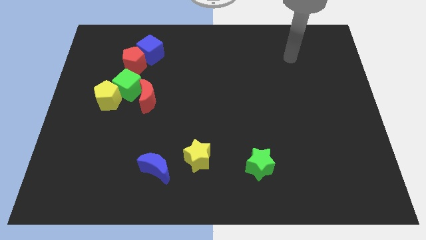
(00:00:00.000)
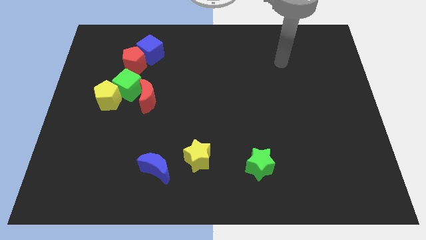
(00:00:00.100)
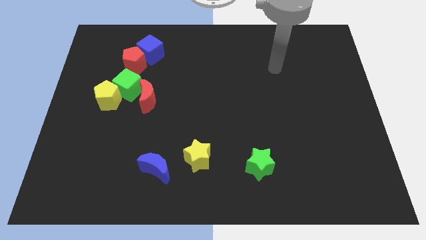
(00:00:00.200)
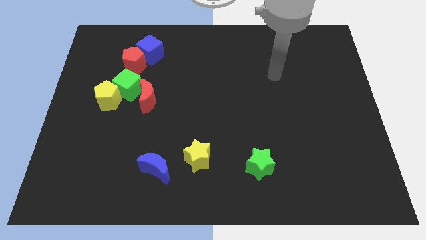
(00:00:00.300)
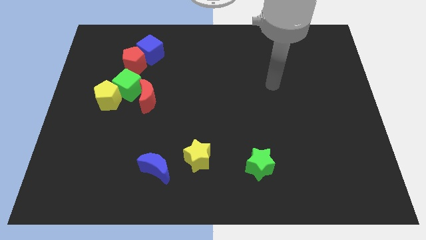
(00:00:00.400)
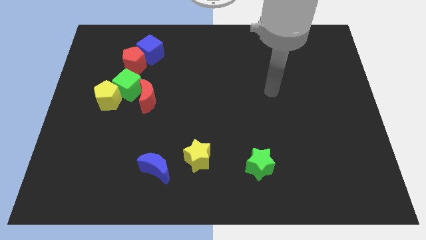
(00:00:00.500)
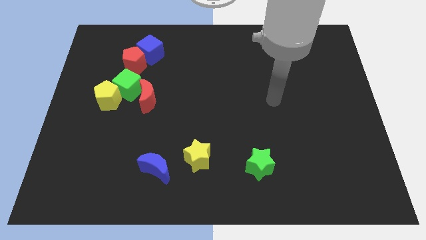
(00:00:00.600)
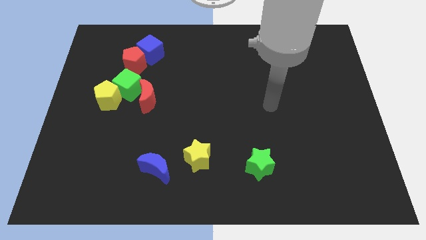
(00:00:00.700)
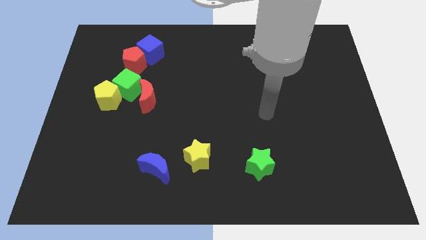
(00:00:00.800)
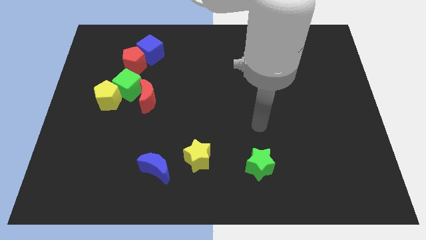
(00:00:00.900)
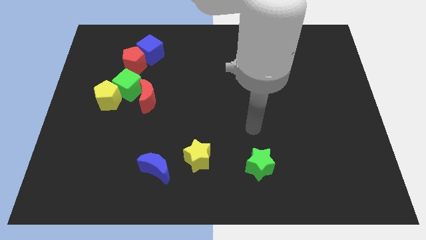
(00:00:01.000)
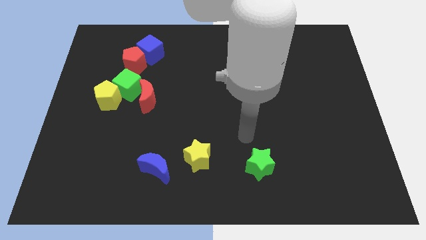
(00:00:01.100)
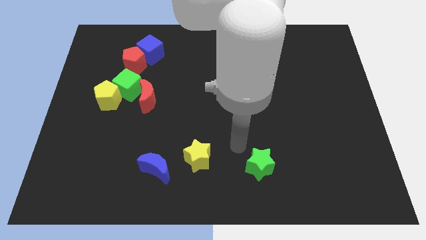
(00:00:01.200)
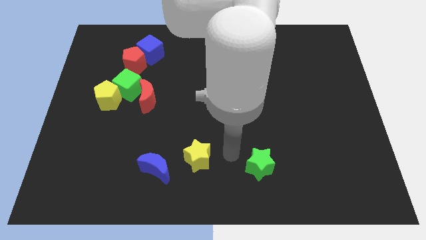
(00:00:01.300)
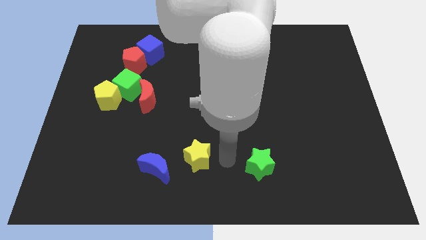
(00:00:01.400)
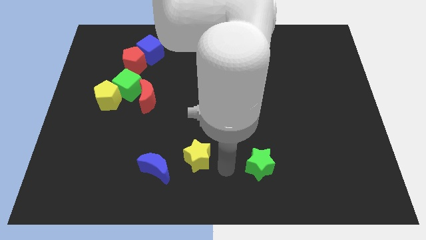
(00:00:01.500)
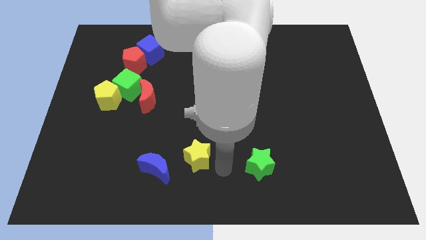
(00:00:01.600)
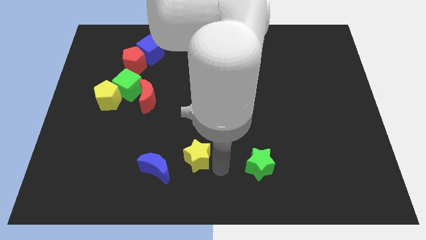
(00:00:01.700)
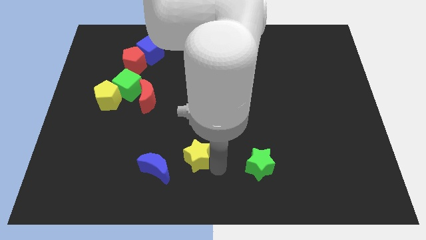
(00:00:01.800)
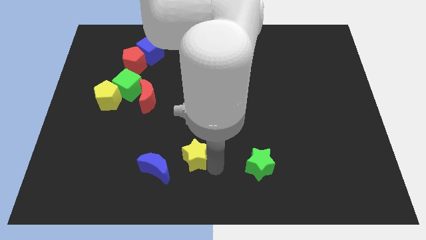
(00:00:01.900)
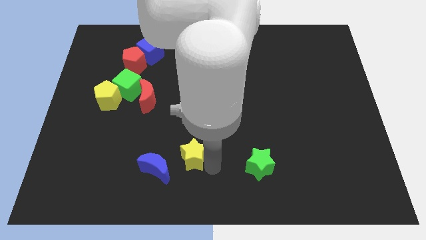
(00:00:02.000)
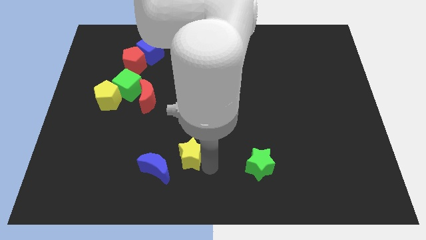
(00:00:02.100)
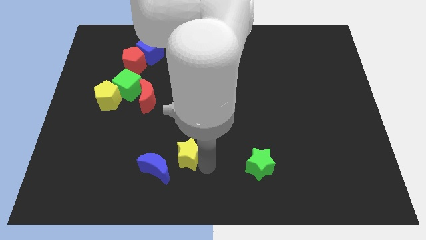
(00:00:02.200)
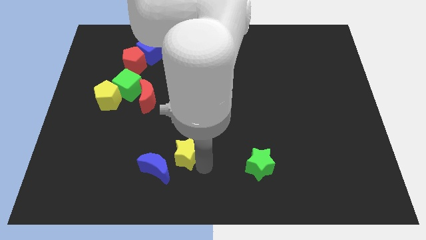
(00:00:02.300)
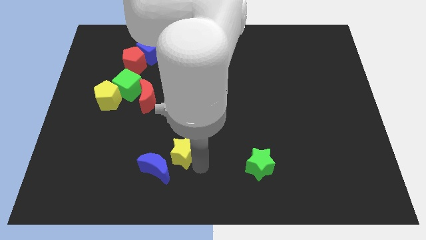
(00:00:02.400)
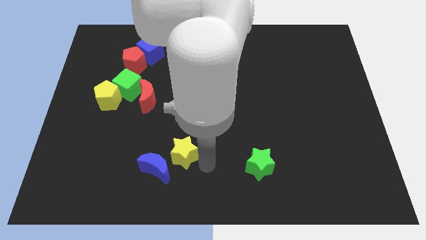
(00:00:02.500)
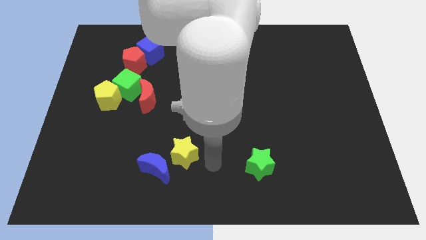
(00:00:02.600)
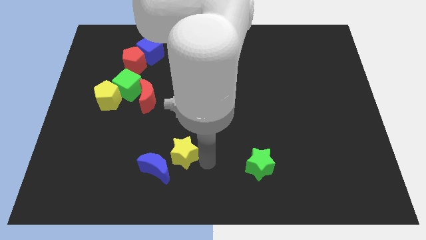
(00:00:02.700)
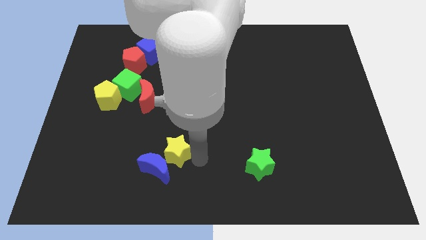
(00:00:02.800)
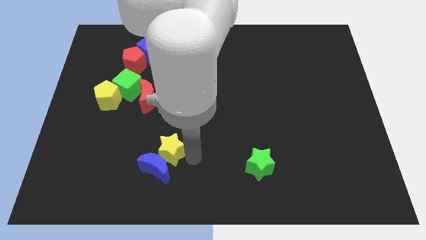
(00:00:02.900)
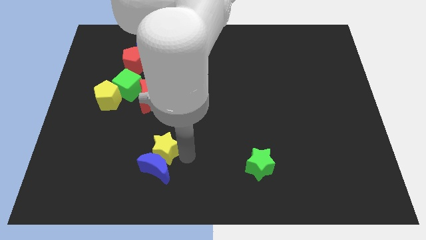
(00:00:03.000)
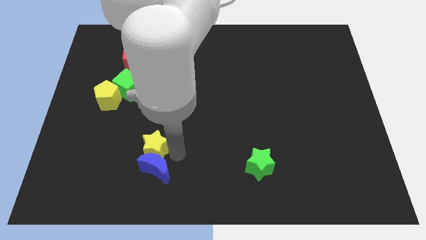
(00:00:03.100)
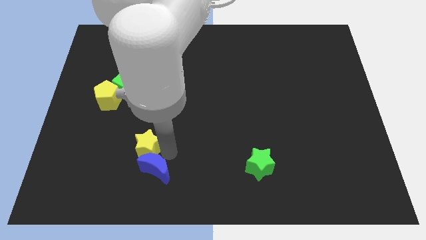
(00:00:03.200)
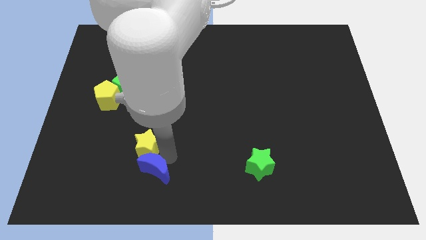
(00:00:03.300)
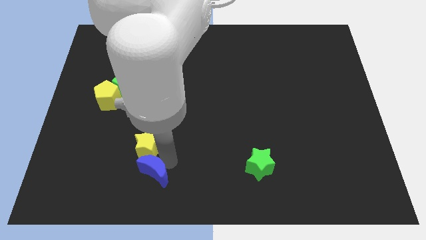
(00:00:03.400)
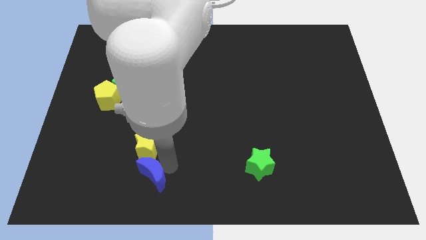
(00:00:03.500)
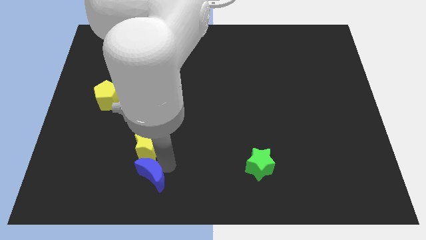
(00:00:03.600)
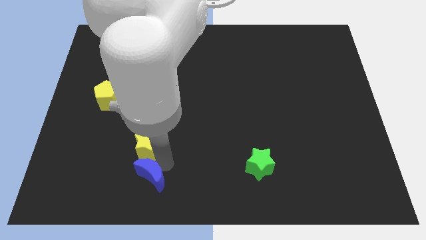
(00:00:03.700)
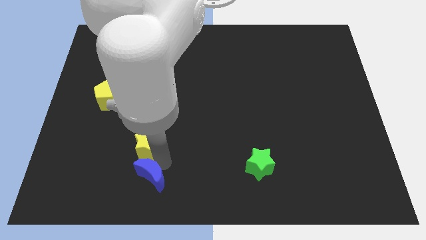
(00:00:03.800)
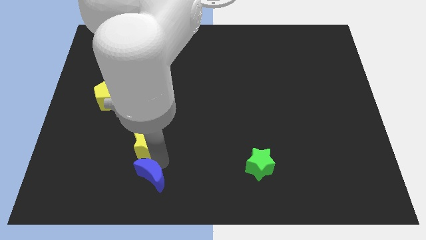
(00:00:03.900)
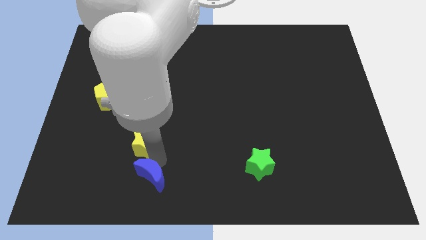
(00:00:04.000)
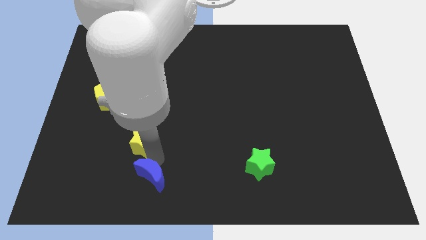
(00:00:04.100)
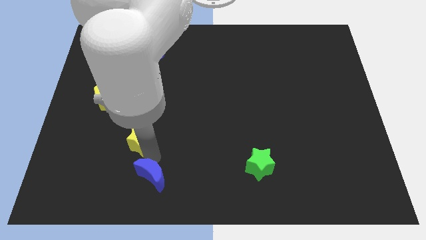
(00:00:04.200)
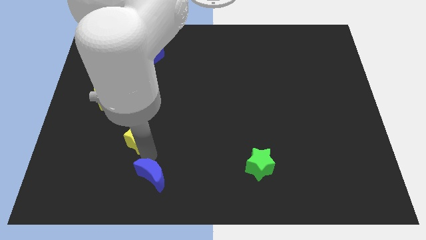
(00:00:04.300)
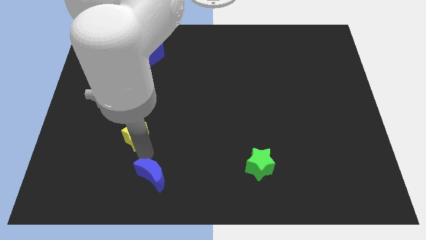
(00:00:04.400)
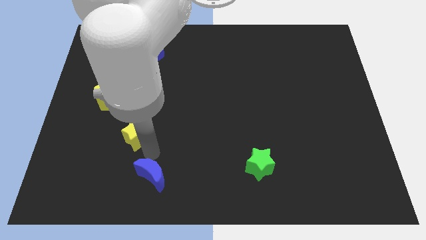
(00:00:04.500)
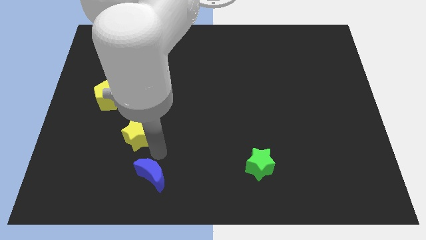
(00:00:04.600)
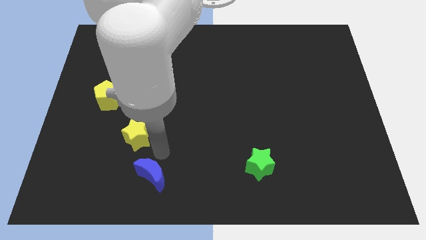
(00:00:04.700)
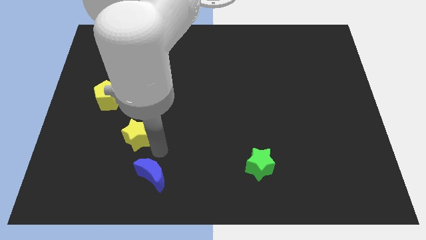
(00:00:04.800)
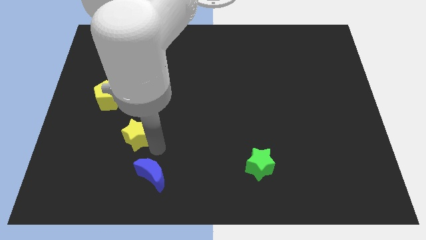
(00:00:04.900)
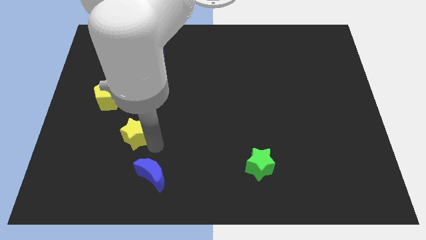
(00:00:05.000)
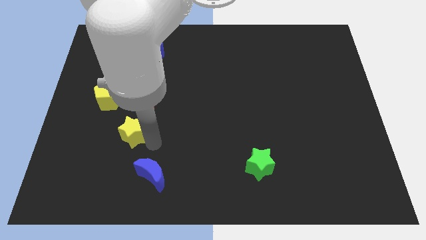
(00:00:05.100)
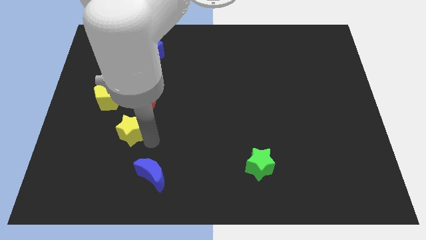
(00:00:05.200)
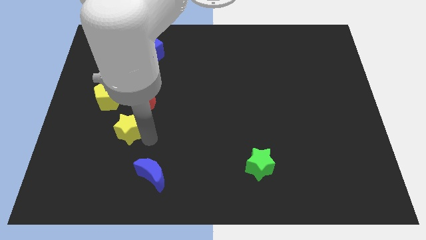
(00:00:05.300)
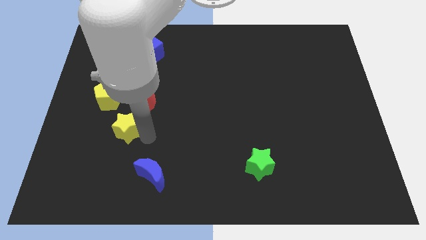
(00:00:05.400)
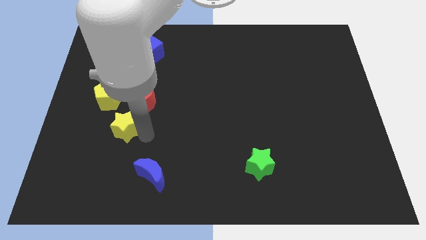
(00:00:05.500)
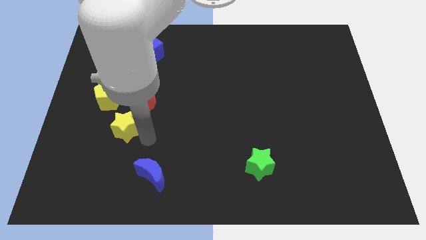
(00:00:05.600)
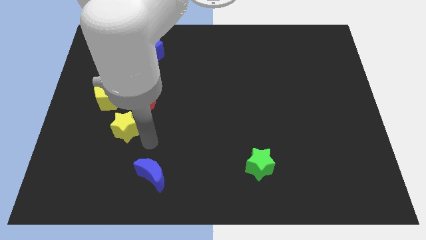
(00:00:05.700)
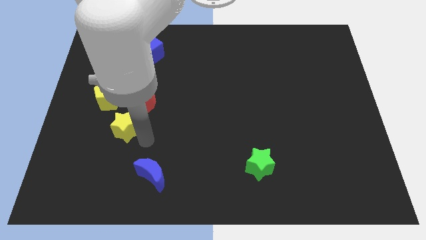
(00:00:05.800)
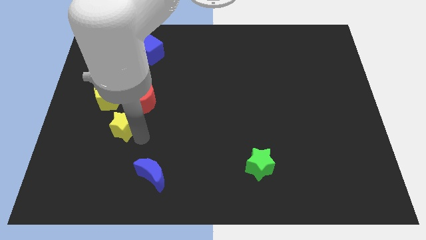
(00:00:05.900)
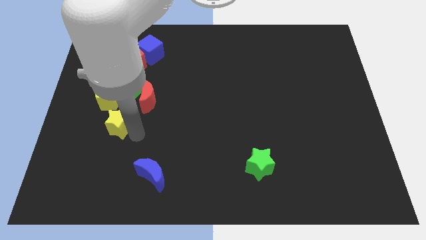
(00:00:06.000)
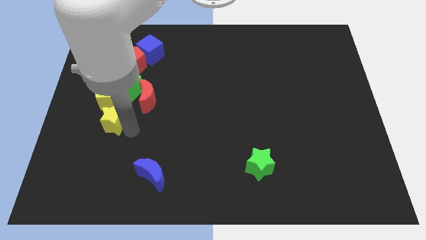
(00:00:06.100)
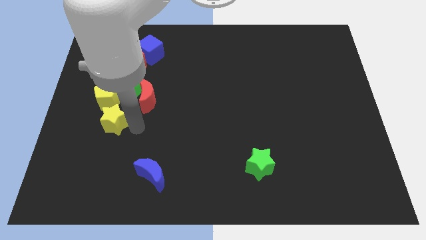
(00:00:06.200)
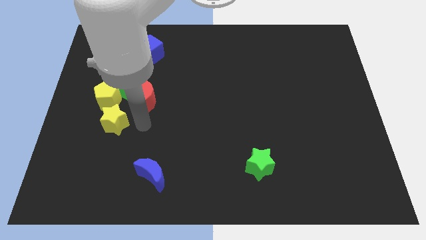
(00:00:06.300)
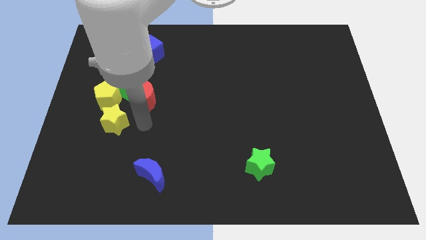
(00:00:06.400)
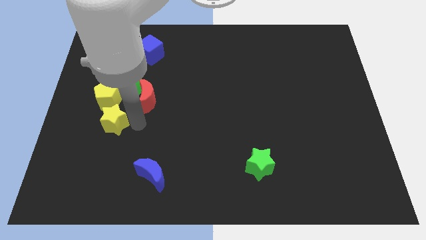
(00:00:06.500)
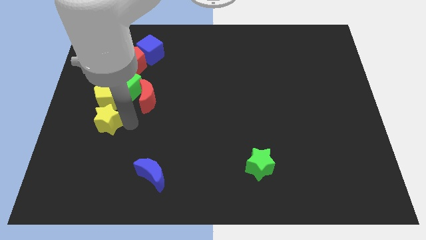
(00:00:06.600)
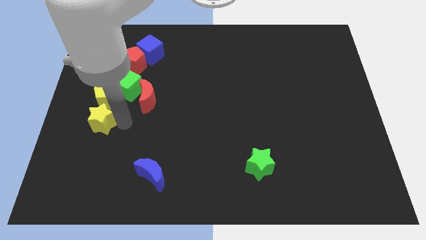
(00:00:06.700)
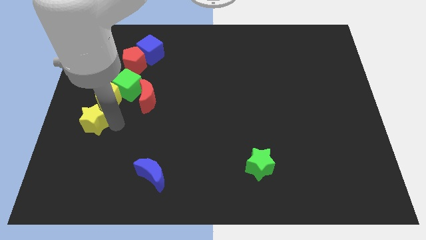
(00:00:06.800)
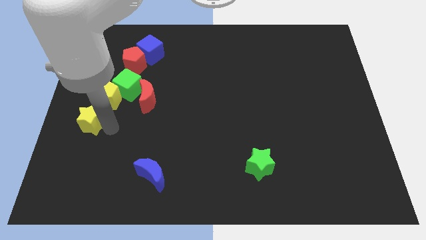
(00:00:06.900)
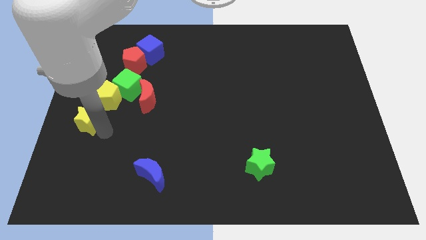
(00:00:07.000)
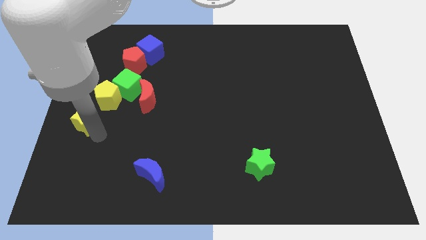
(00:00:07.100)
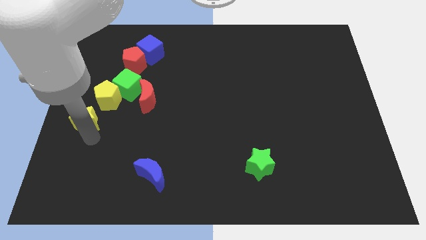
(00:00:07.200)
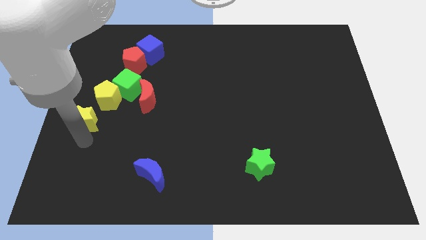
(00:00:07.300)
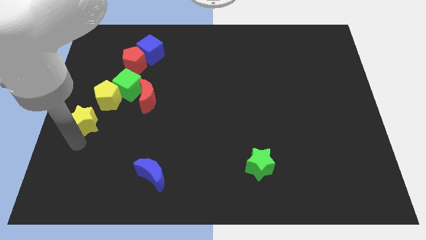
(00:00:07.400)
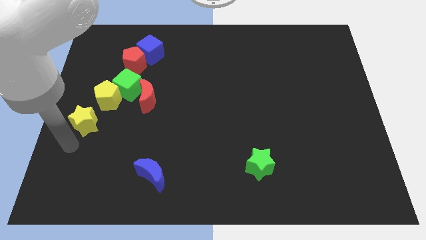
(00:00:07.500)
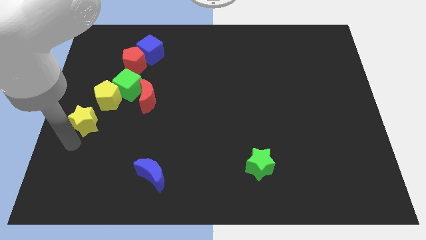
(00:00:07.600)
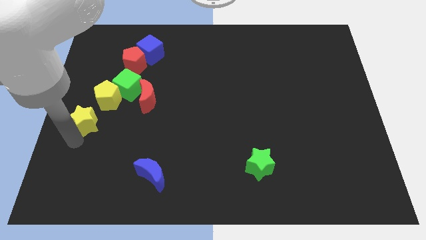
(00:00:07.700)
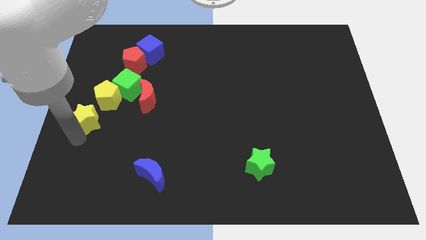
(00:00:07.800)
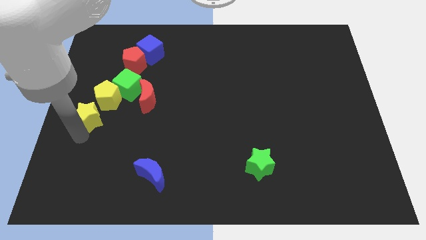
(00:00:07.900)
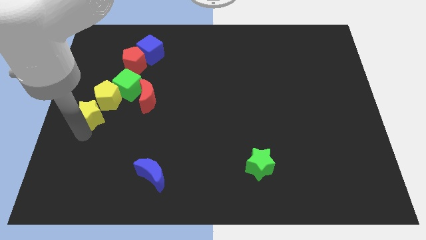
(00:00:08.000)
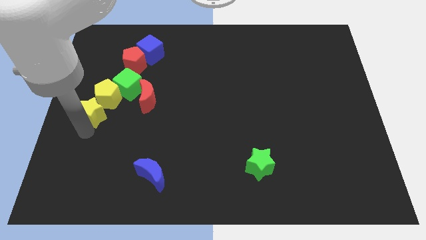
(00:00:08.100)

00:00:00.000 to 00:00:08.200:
put the yellow star to the left of the red moon
